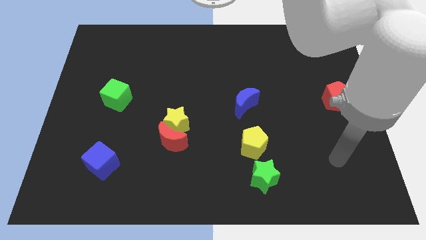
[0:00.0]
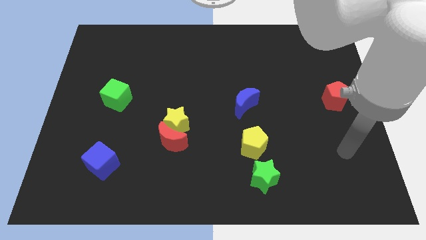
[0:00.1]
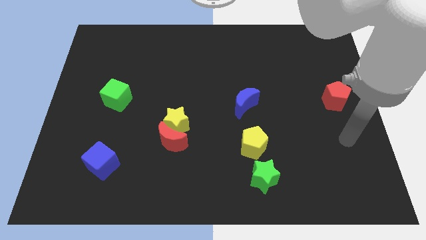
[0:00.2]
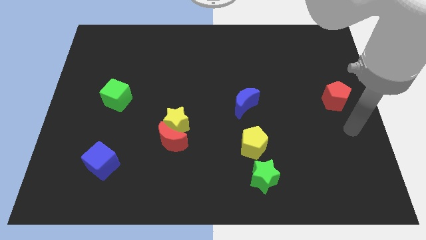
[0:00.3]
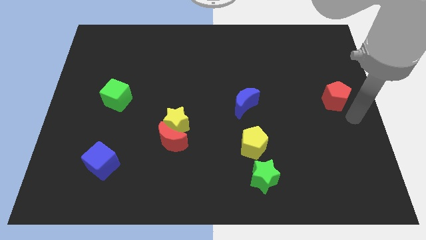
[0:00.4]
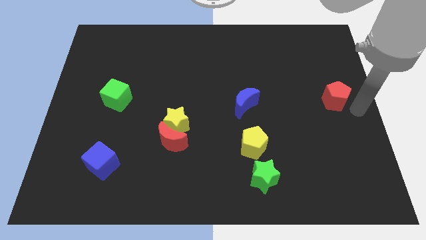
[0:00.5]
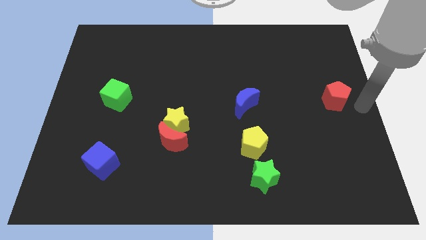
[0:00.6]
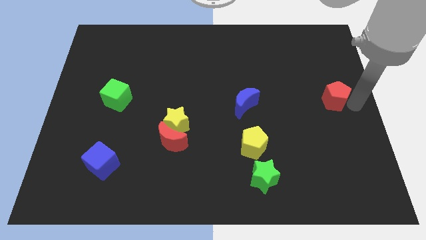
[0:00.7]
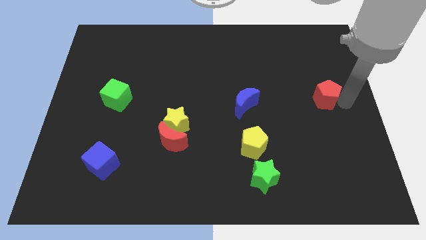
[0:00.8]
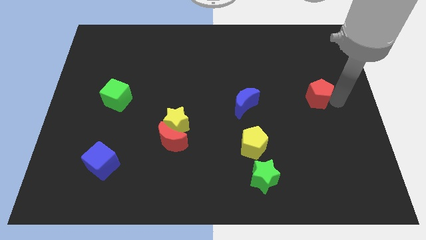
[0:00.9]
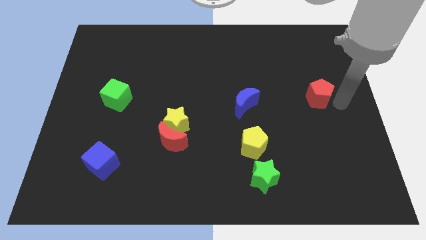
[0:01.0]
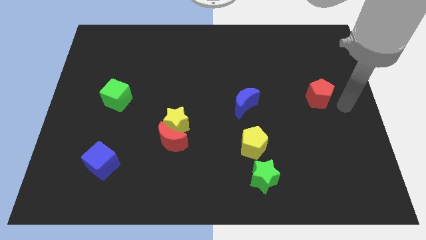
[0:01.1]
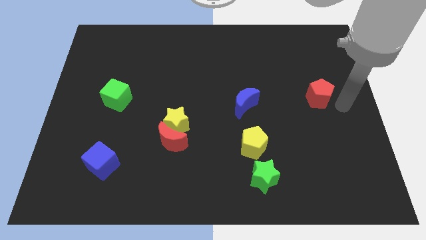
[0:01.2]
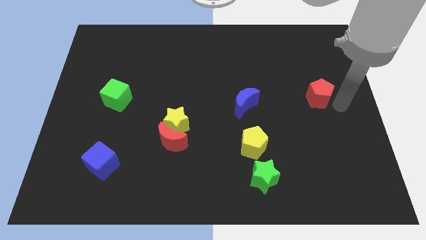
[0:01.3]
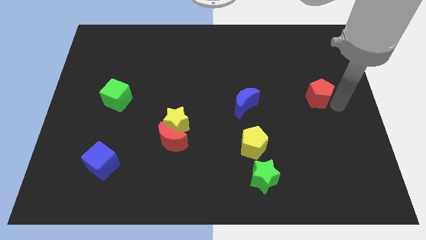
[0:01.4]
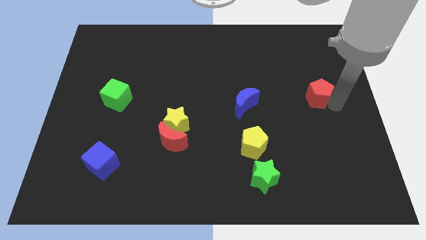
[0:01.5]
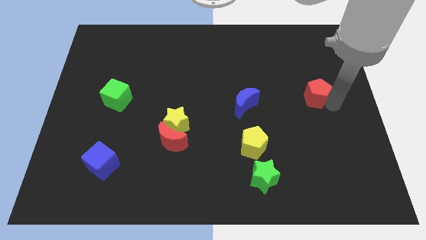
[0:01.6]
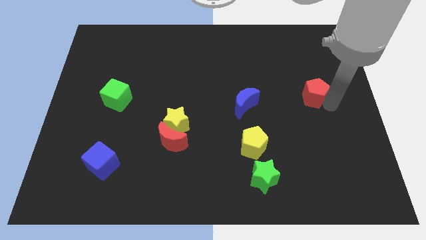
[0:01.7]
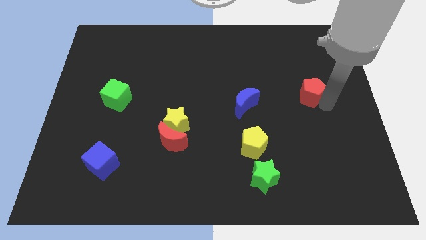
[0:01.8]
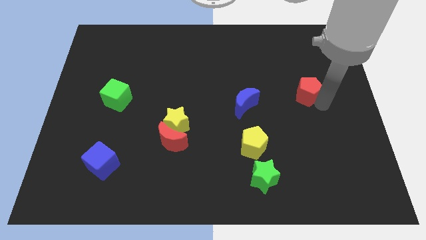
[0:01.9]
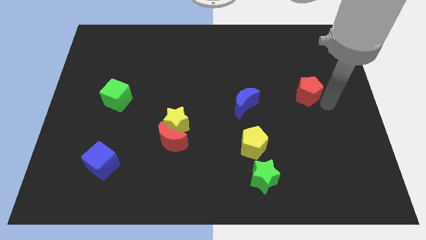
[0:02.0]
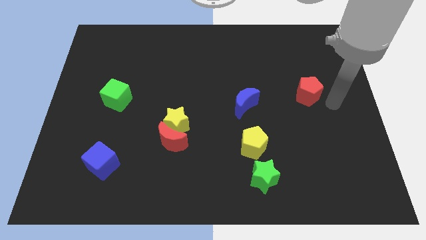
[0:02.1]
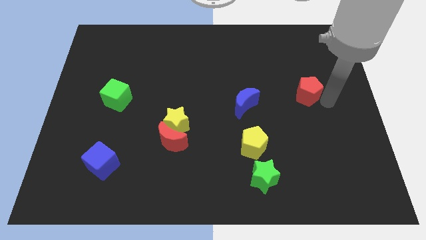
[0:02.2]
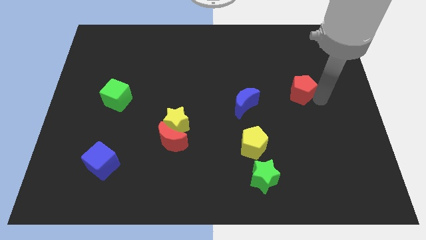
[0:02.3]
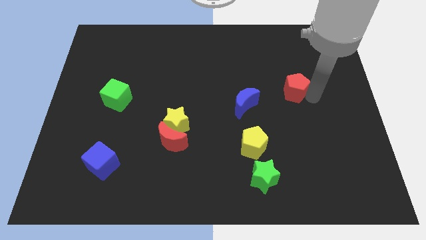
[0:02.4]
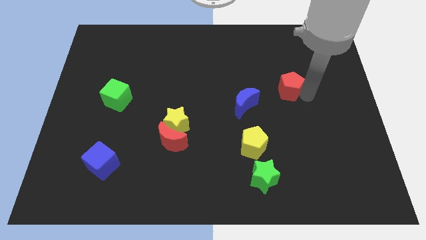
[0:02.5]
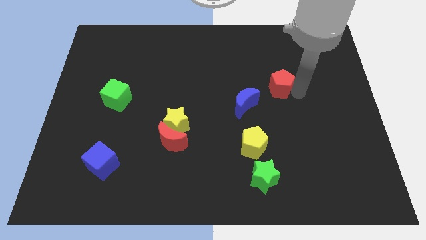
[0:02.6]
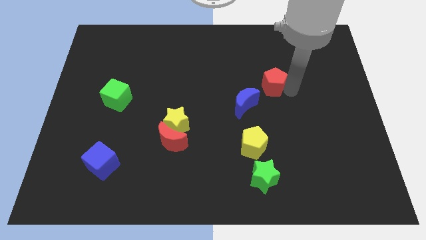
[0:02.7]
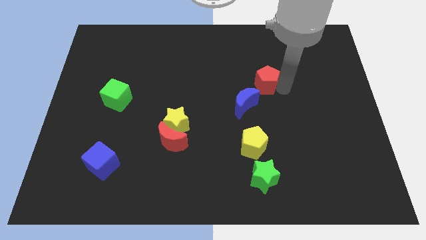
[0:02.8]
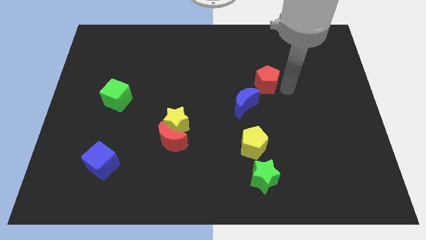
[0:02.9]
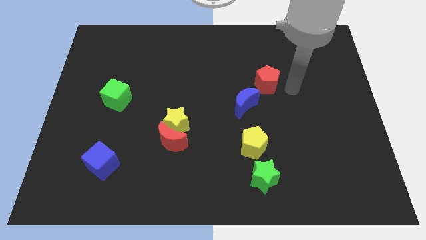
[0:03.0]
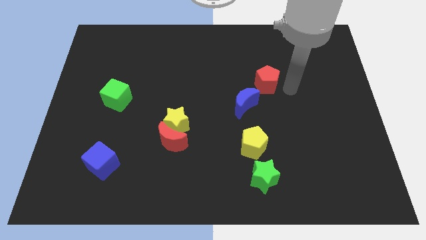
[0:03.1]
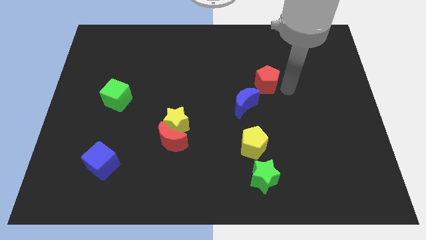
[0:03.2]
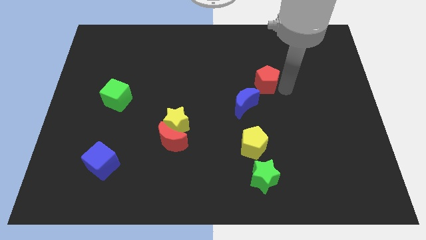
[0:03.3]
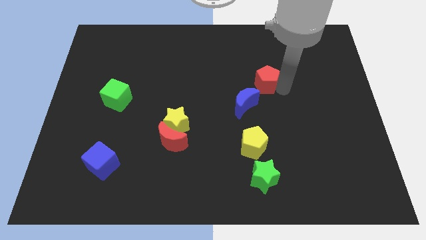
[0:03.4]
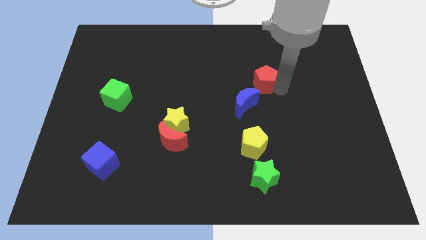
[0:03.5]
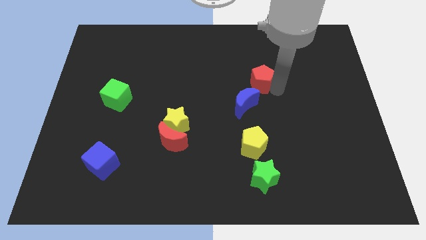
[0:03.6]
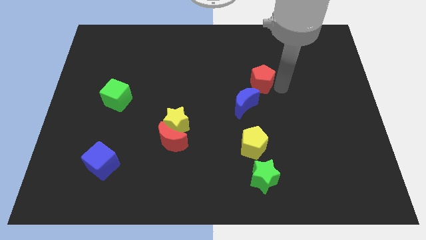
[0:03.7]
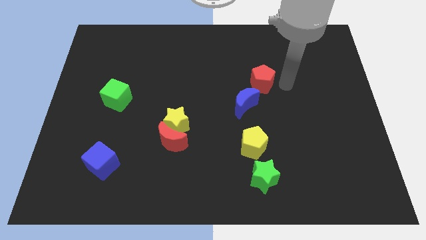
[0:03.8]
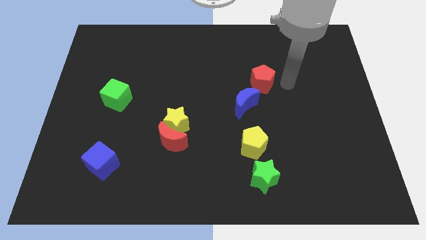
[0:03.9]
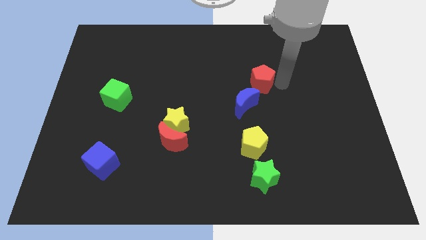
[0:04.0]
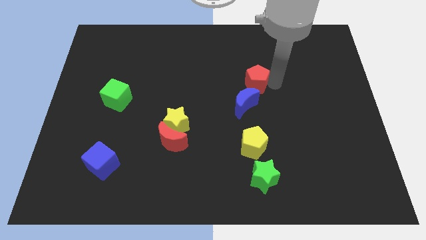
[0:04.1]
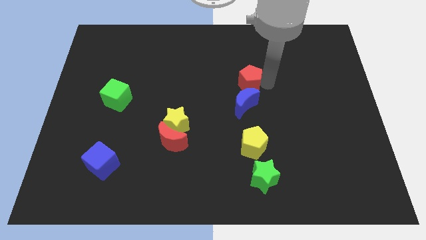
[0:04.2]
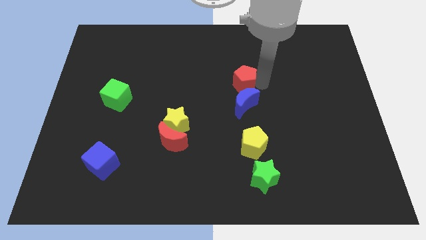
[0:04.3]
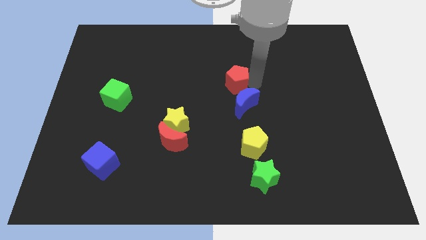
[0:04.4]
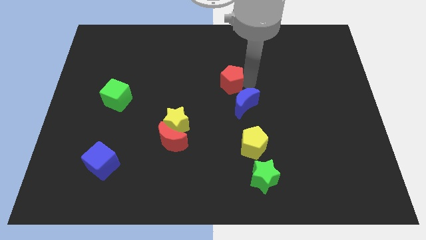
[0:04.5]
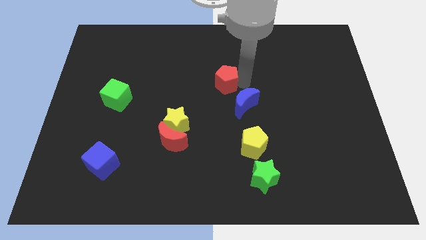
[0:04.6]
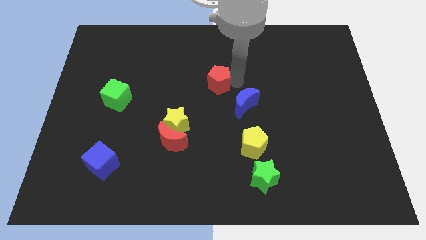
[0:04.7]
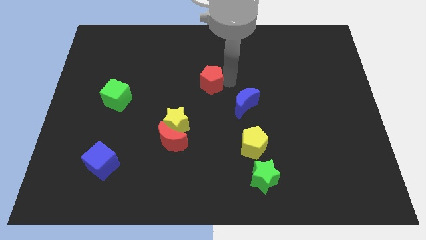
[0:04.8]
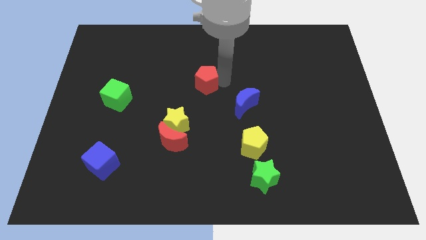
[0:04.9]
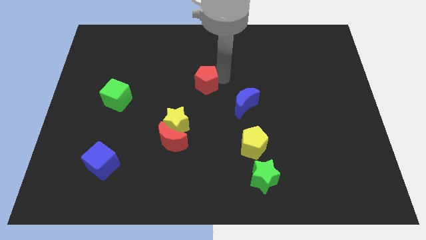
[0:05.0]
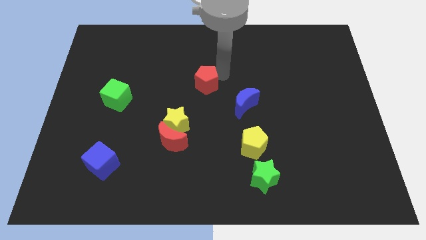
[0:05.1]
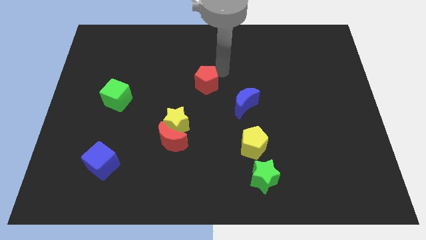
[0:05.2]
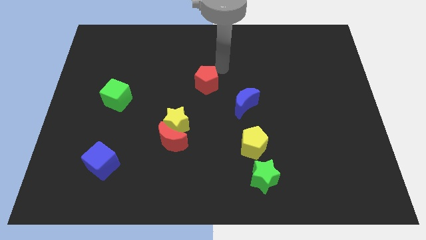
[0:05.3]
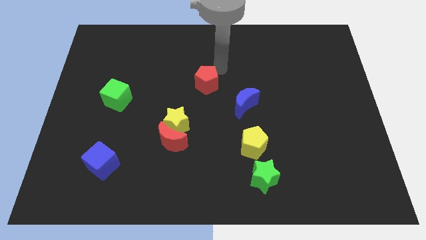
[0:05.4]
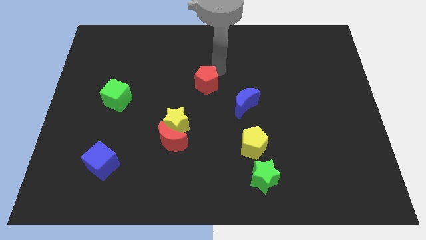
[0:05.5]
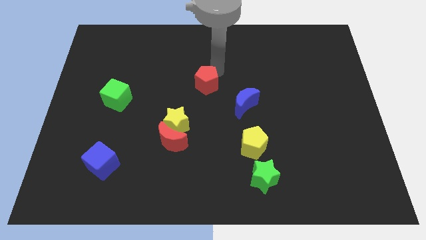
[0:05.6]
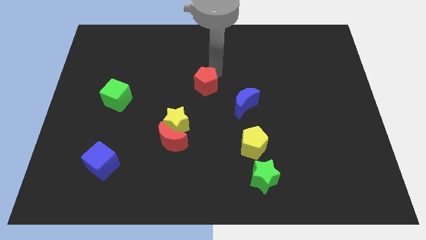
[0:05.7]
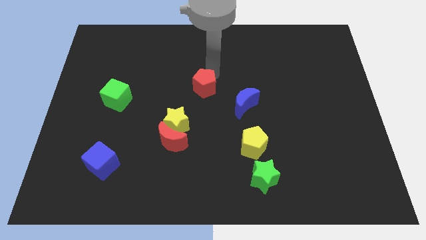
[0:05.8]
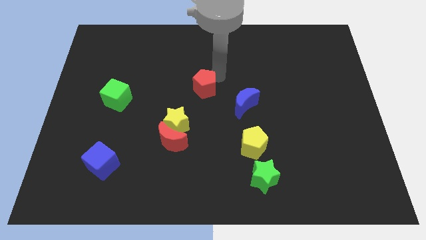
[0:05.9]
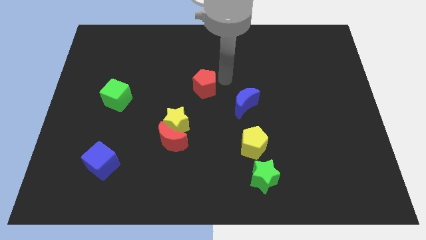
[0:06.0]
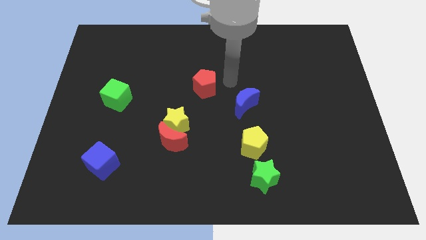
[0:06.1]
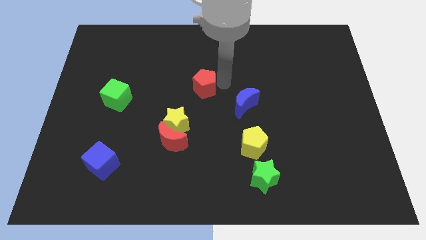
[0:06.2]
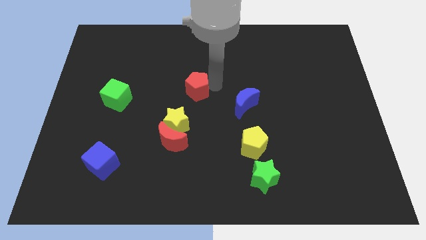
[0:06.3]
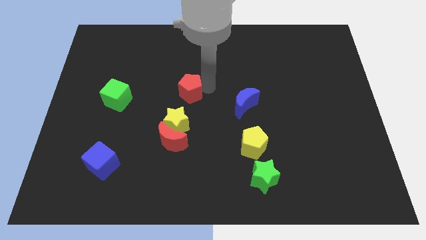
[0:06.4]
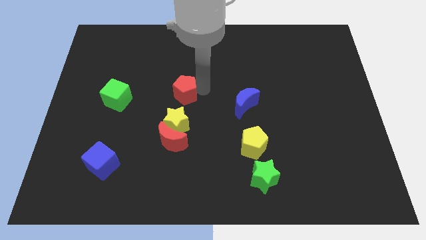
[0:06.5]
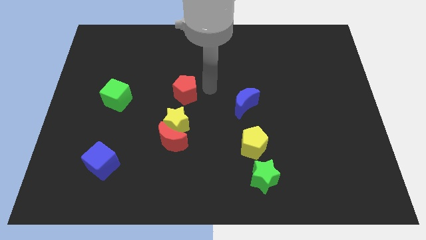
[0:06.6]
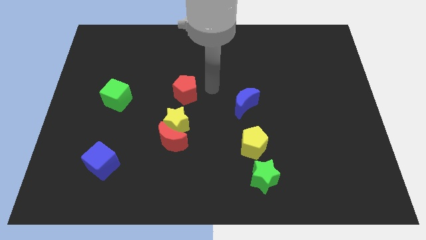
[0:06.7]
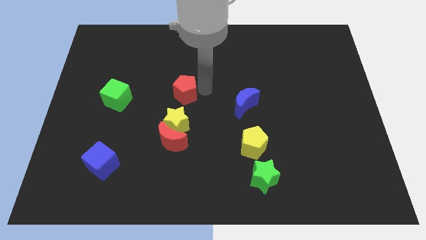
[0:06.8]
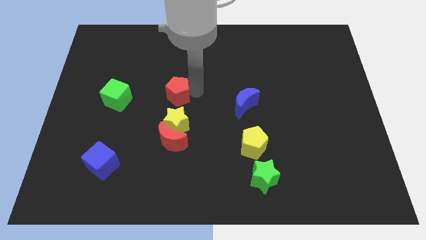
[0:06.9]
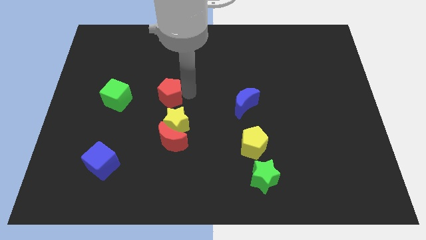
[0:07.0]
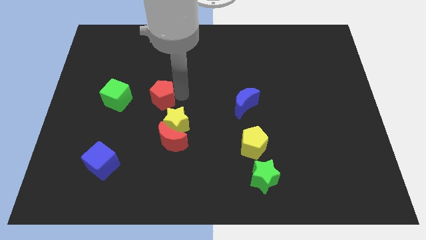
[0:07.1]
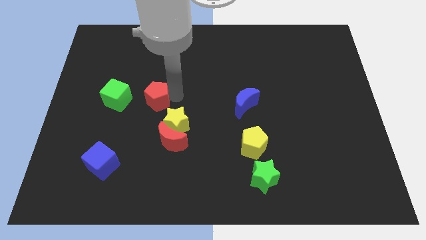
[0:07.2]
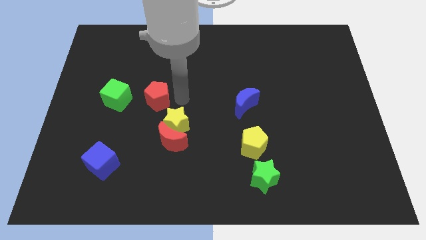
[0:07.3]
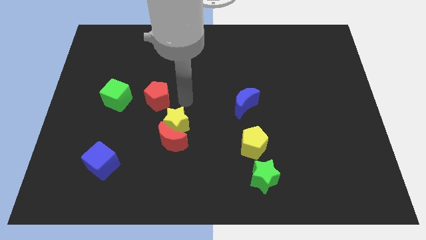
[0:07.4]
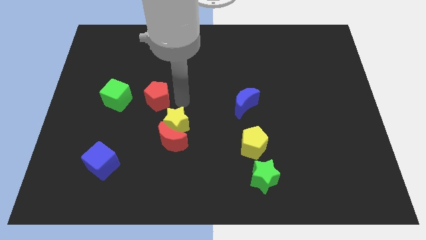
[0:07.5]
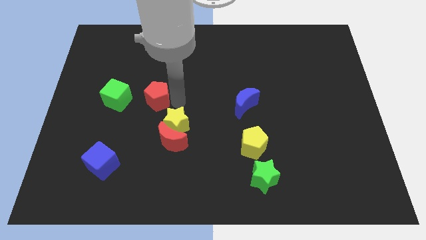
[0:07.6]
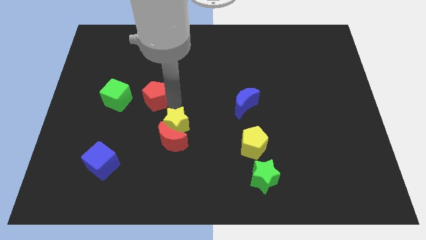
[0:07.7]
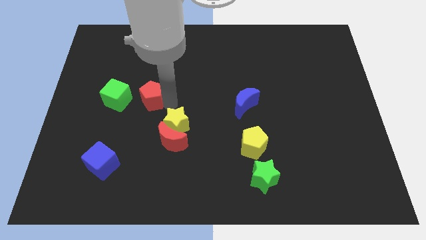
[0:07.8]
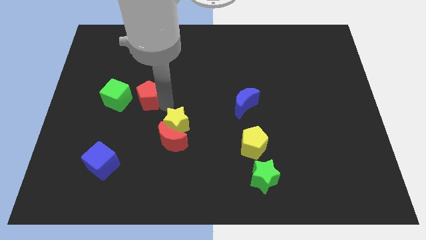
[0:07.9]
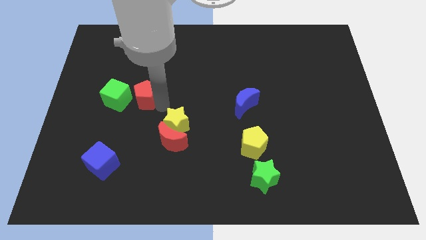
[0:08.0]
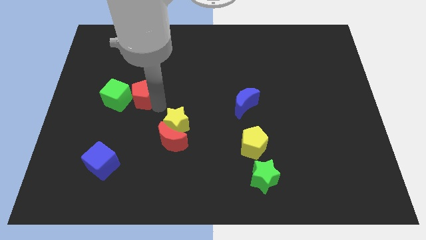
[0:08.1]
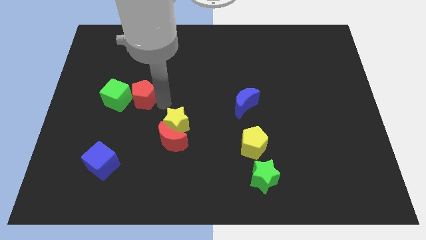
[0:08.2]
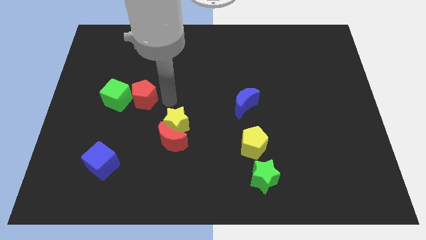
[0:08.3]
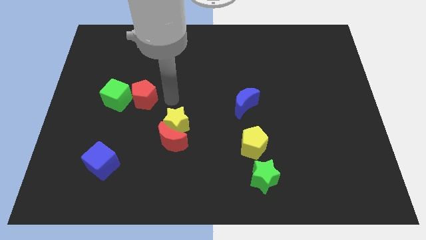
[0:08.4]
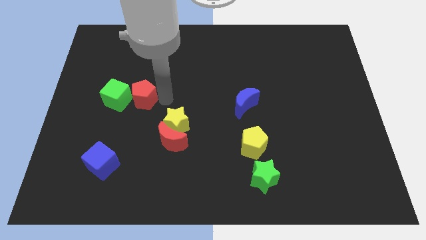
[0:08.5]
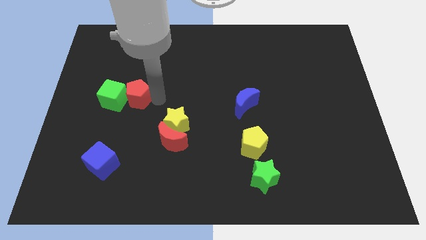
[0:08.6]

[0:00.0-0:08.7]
move the red pentagon to the green cube
